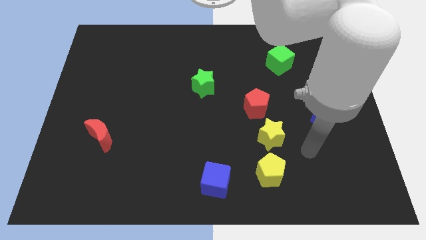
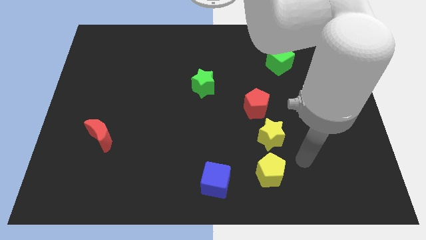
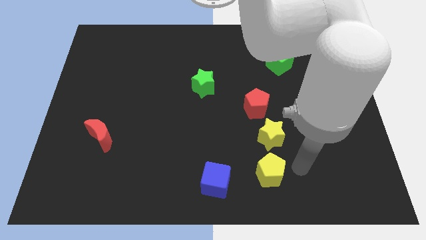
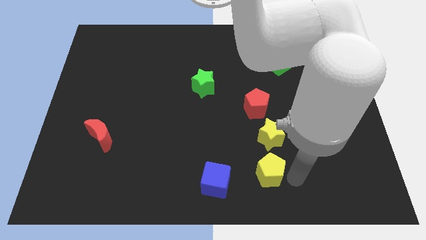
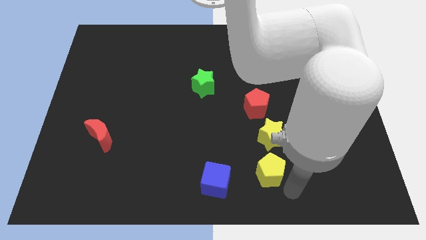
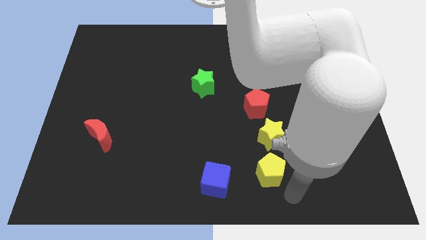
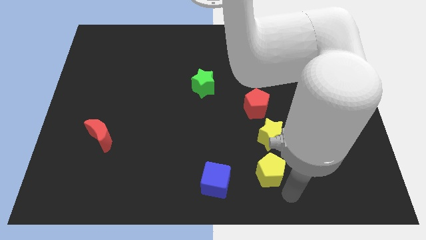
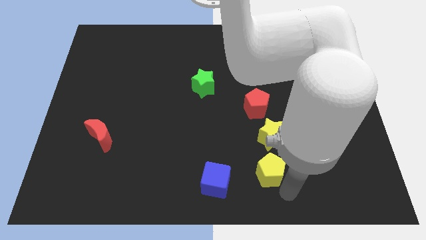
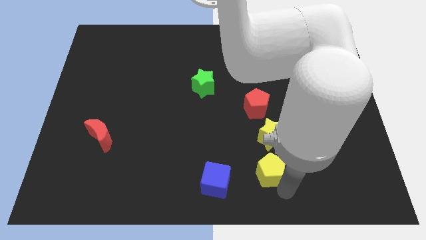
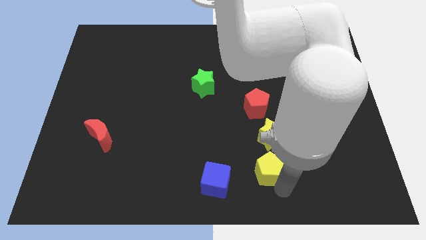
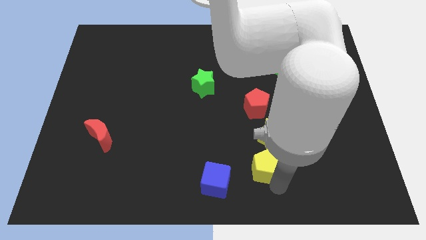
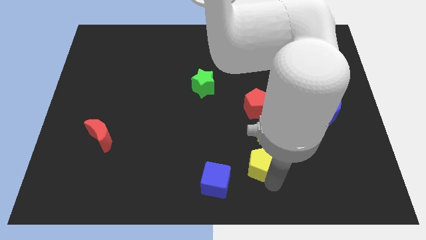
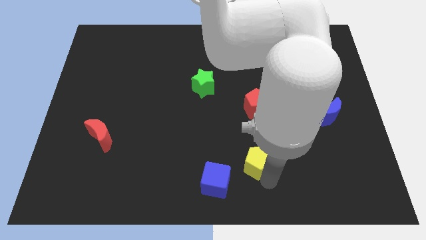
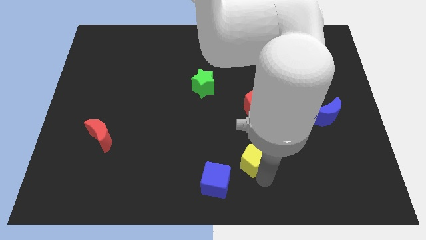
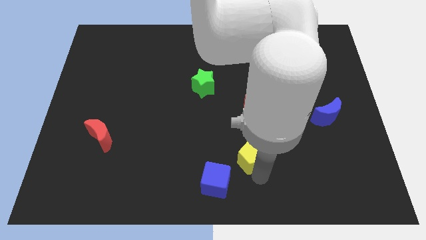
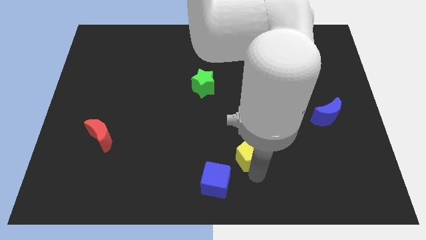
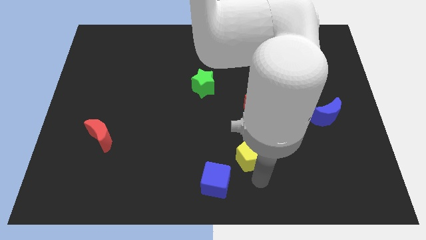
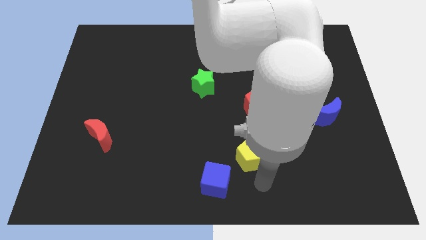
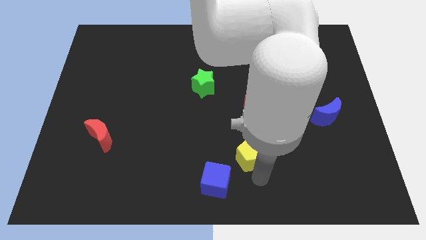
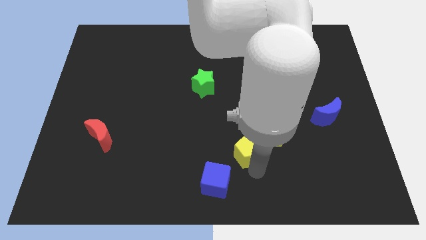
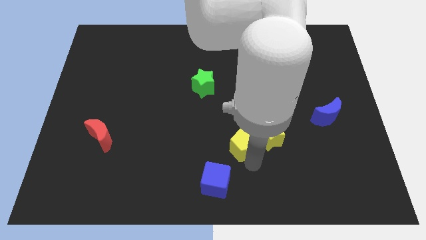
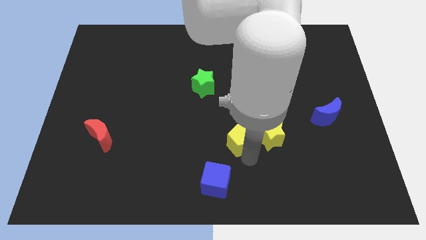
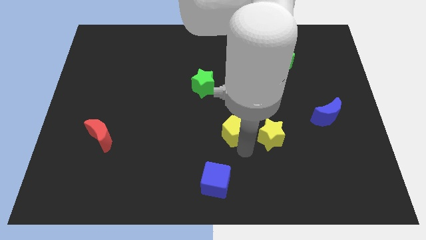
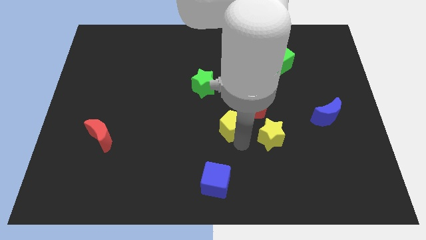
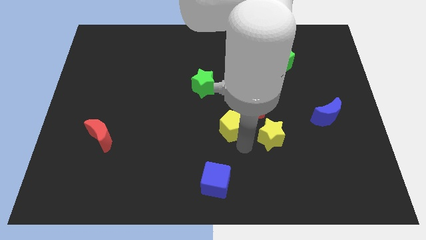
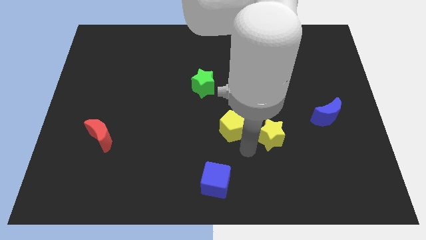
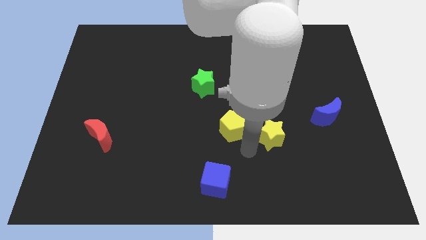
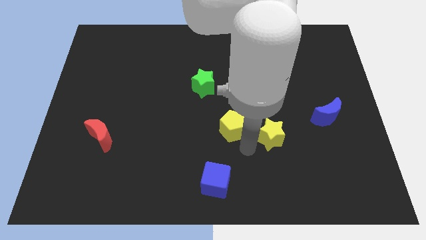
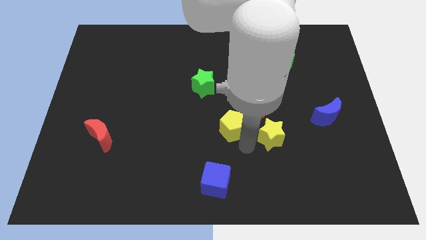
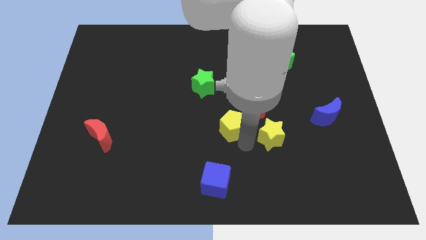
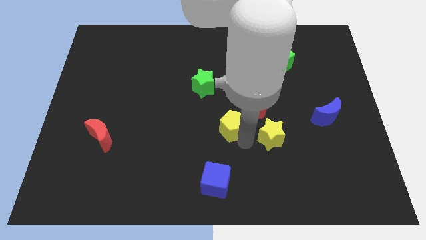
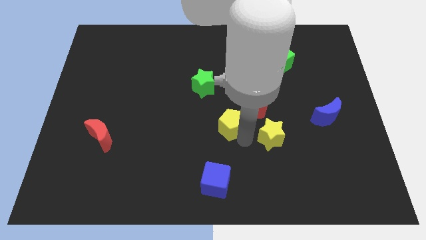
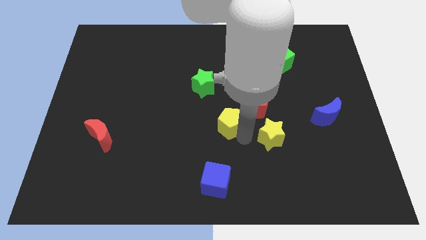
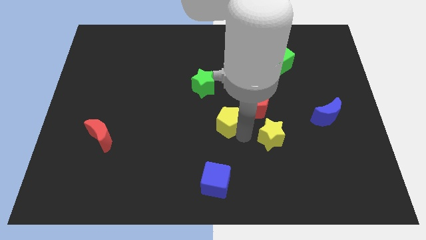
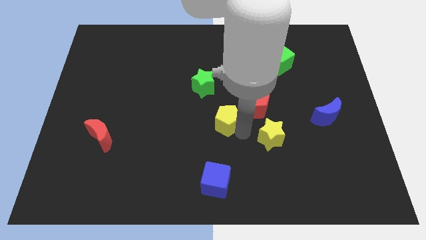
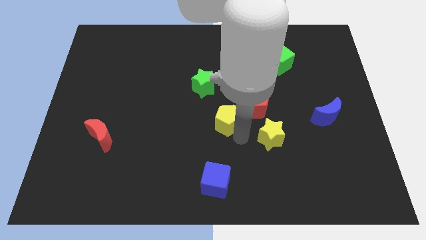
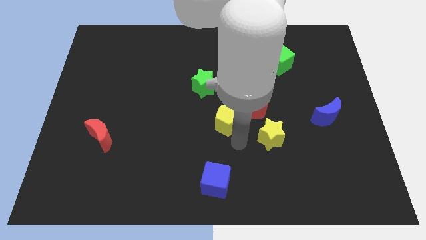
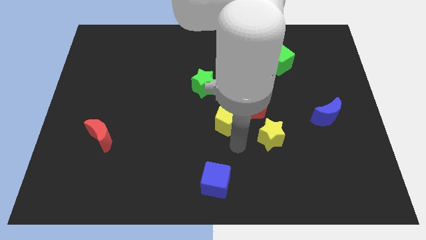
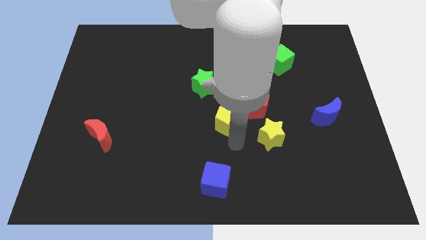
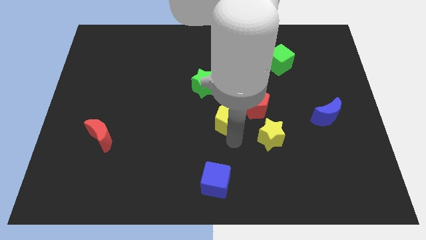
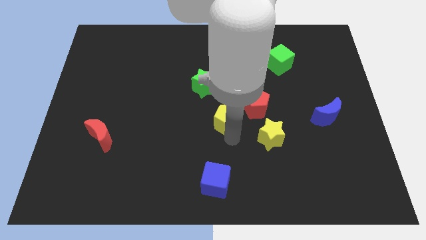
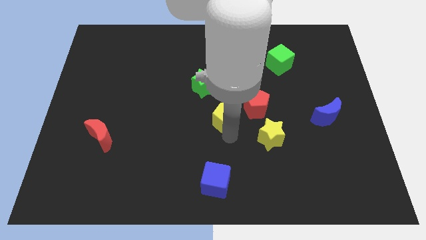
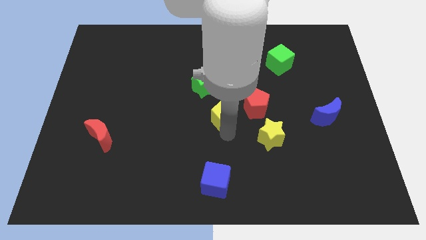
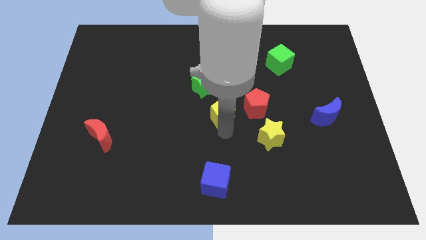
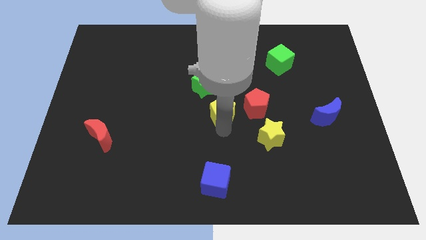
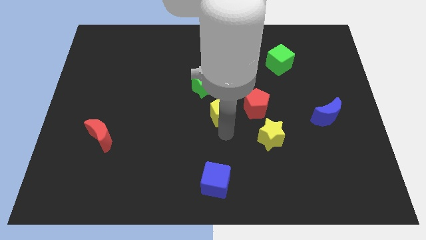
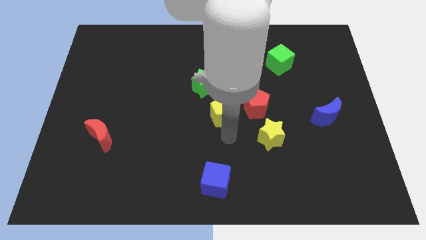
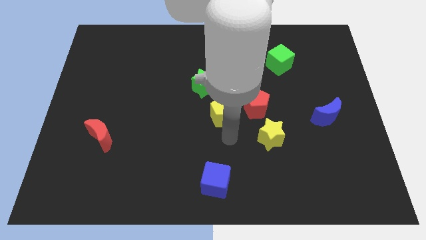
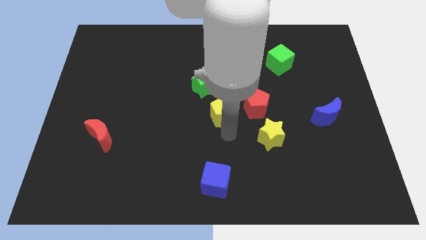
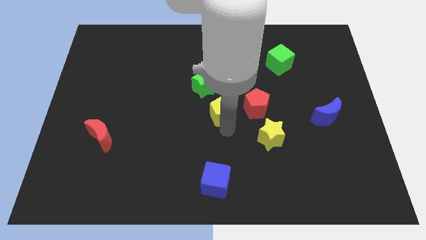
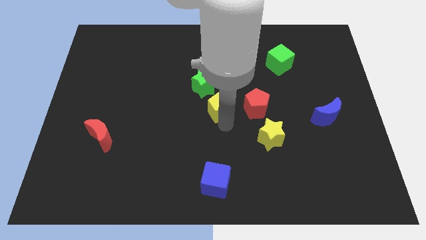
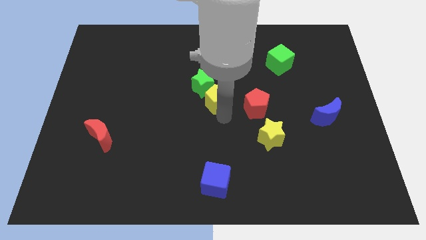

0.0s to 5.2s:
push the yellow pentagon to the green star

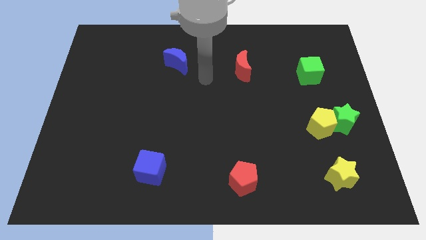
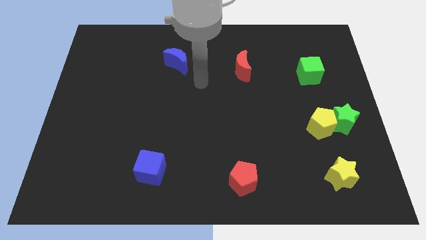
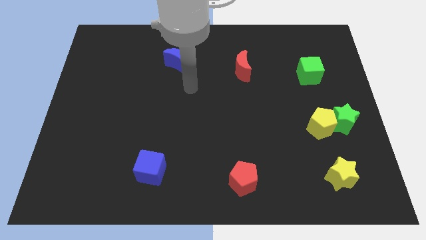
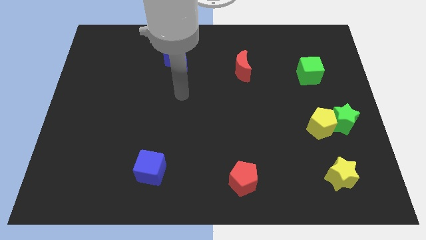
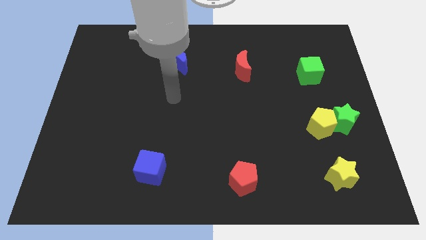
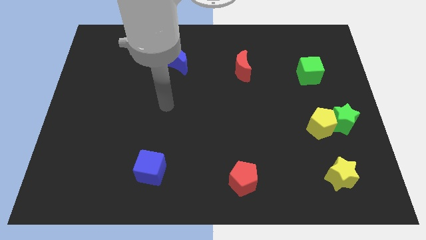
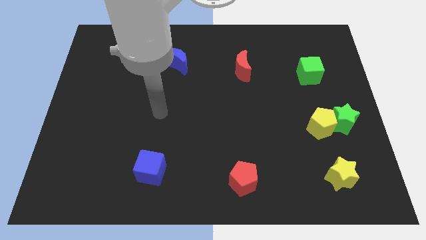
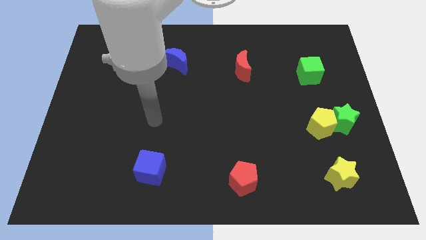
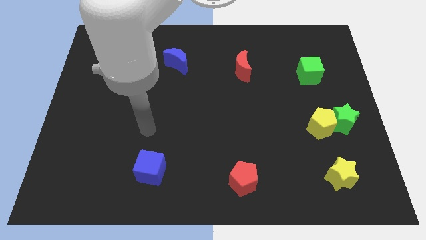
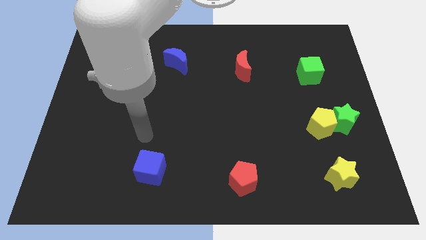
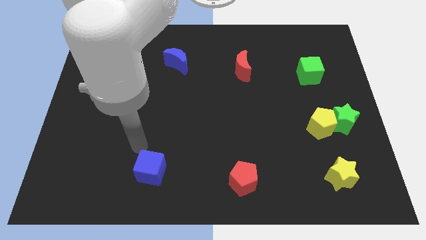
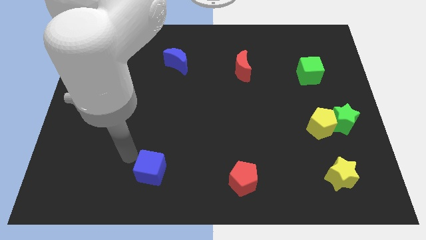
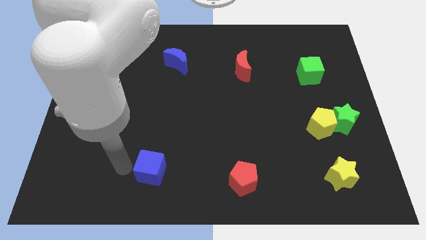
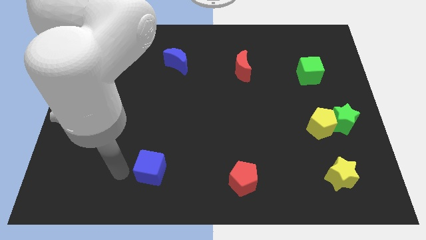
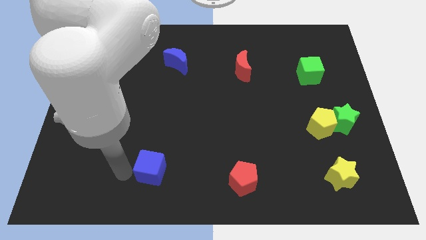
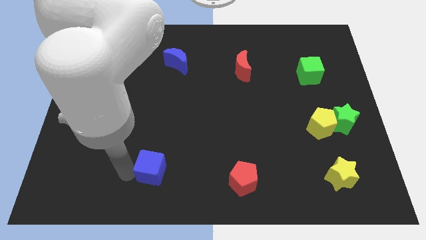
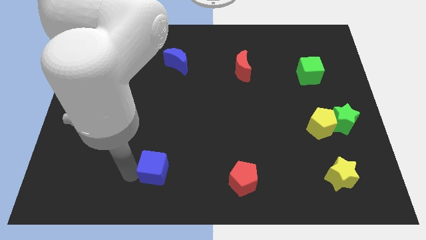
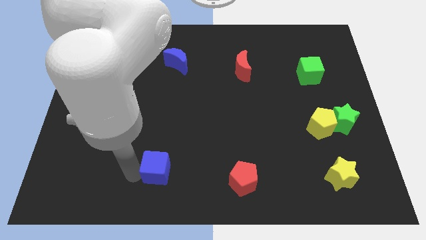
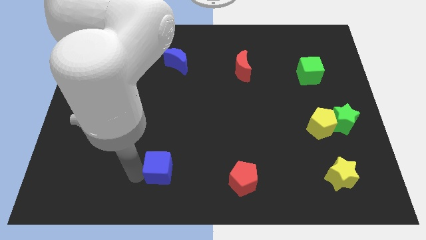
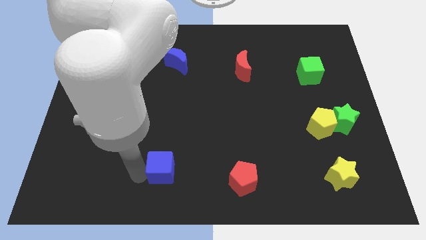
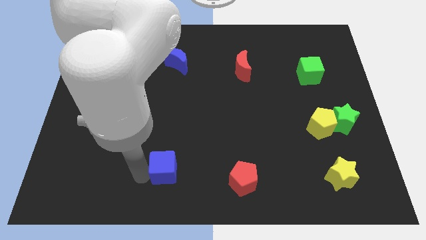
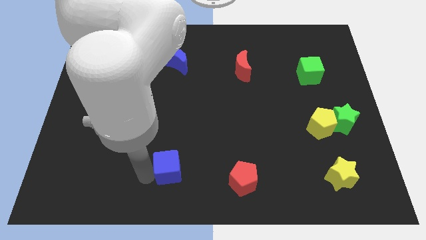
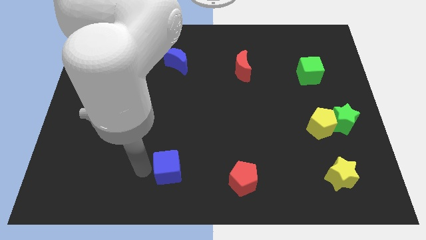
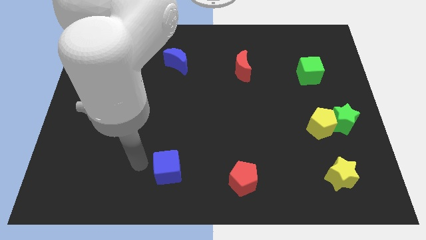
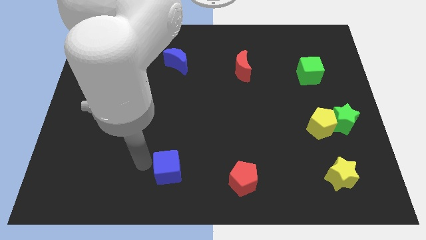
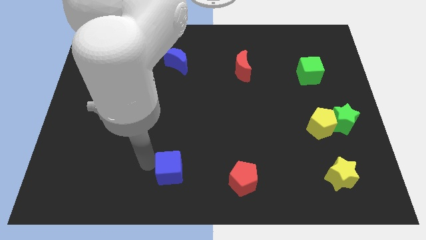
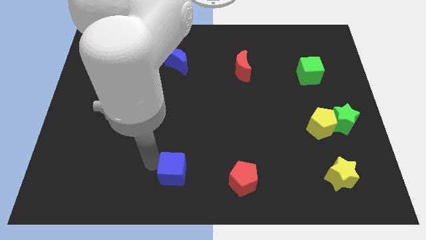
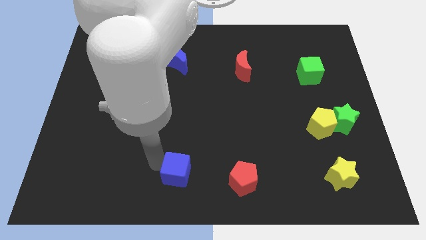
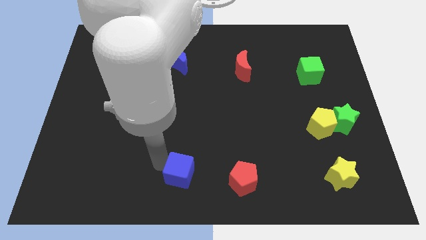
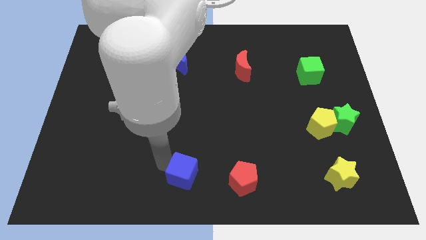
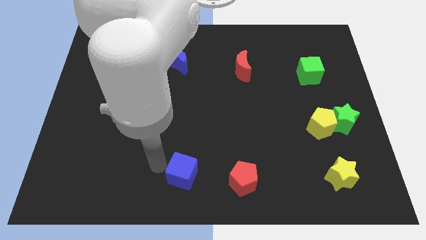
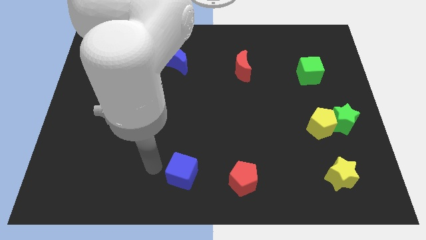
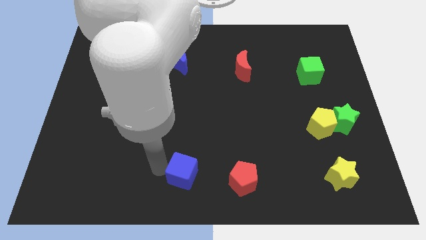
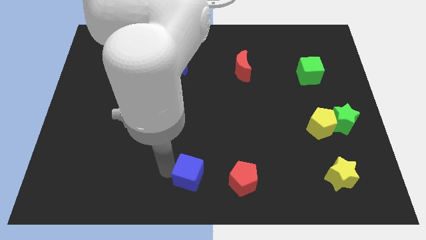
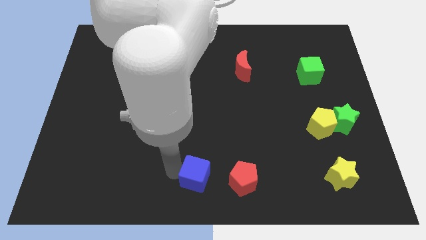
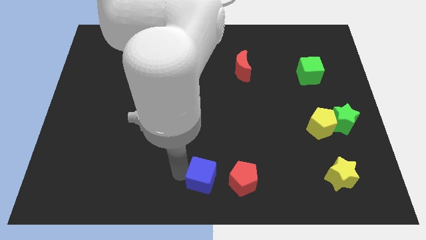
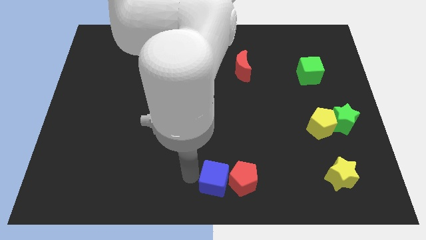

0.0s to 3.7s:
put the blue cube to the red pentagon
